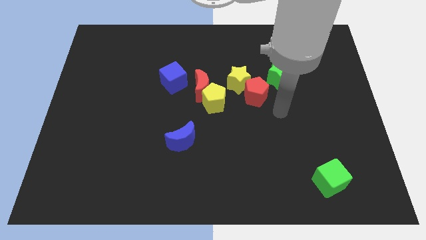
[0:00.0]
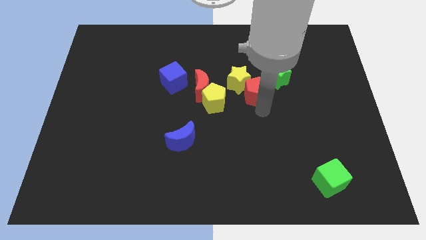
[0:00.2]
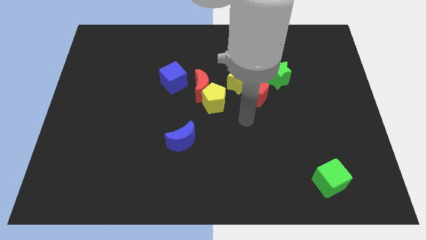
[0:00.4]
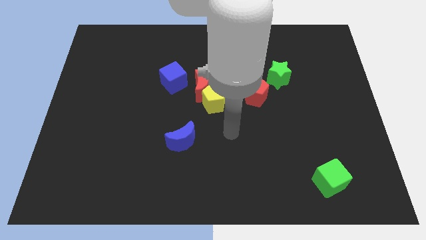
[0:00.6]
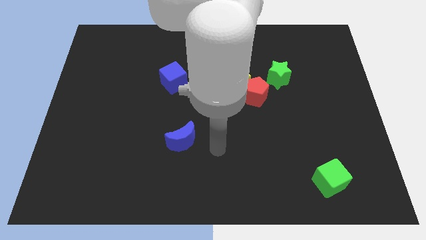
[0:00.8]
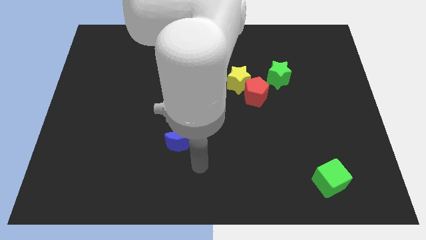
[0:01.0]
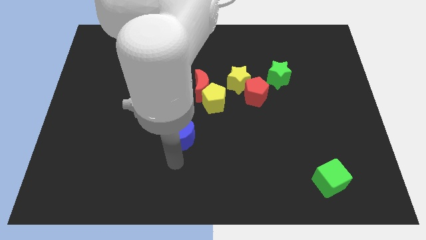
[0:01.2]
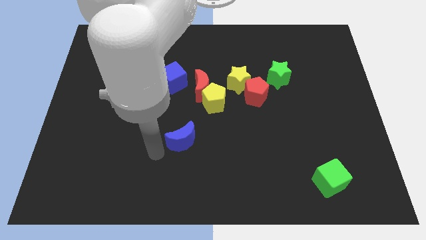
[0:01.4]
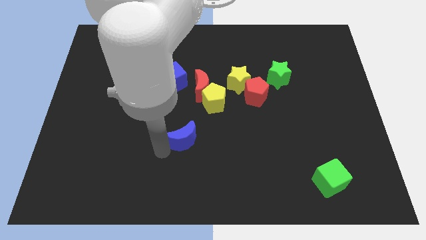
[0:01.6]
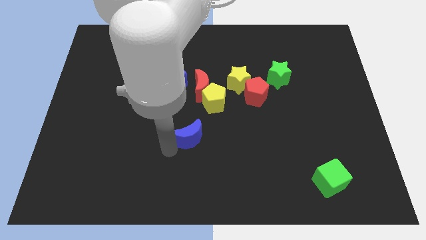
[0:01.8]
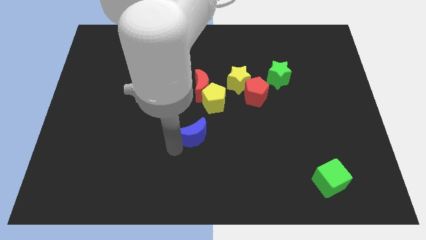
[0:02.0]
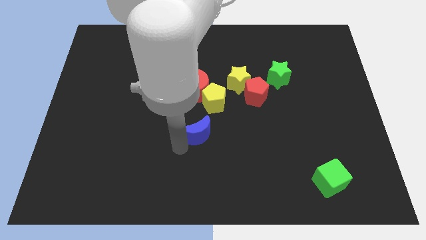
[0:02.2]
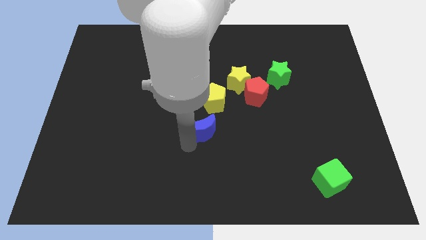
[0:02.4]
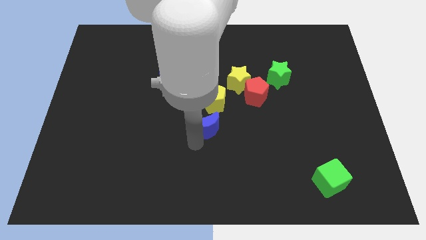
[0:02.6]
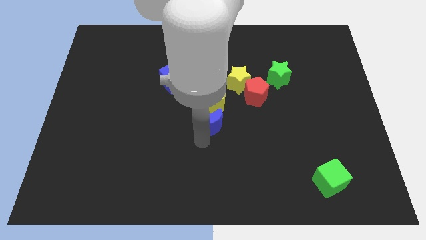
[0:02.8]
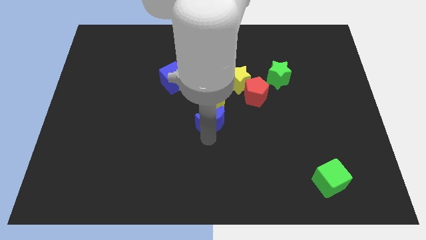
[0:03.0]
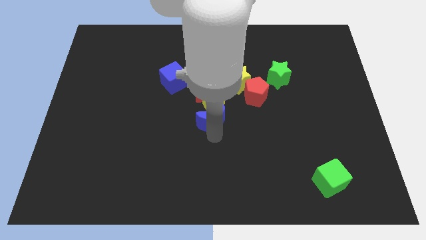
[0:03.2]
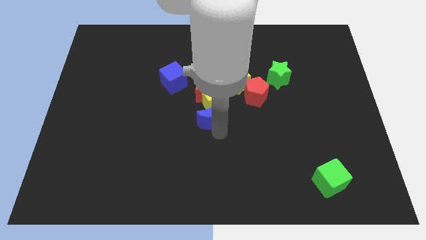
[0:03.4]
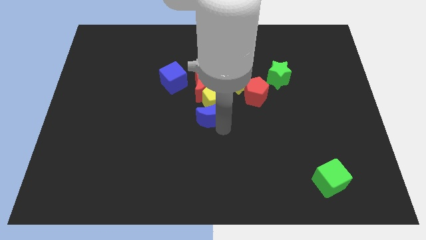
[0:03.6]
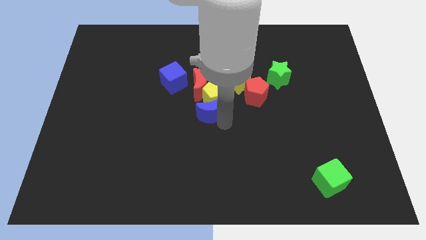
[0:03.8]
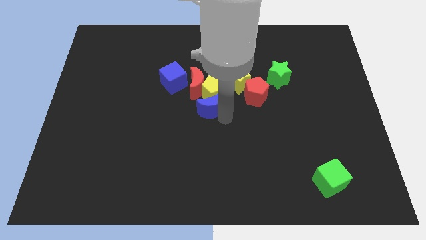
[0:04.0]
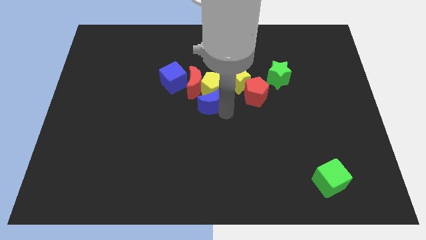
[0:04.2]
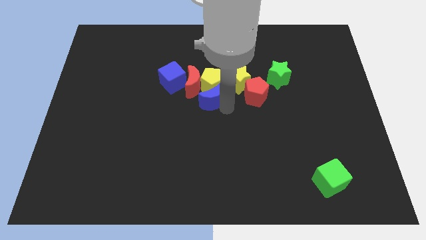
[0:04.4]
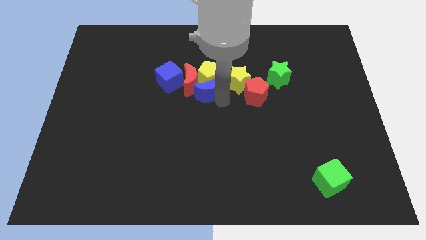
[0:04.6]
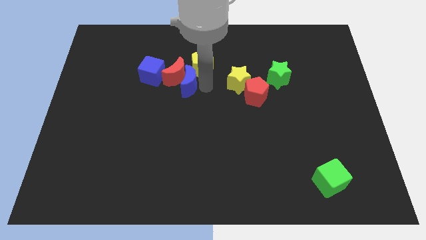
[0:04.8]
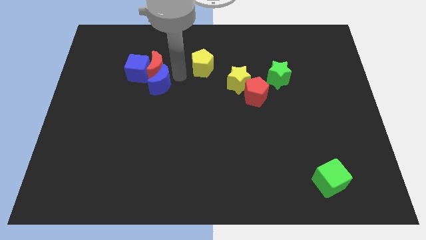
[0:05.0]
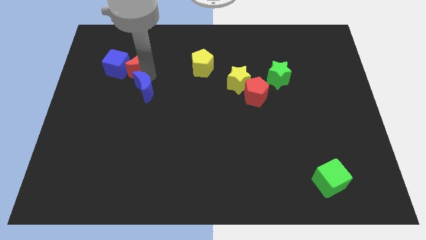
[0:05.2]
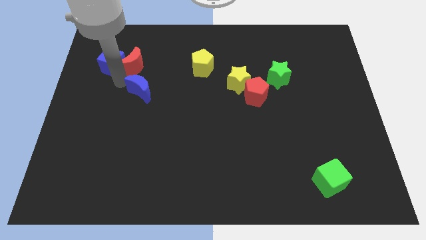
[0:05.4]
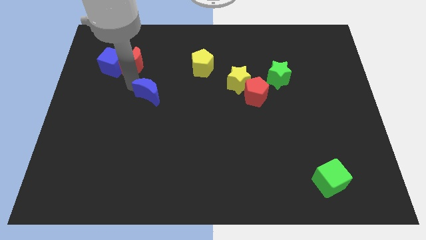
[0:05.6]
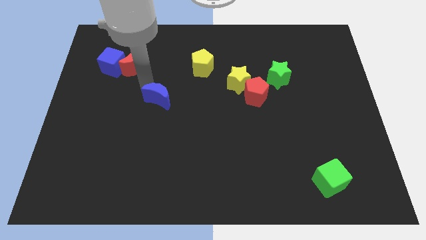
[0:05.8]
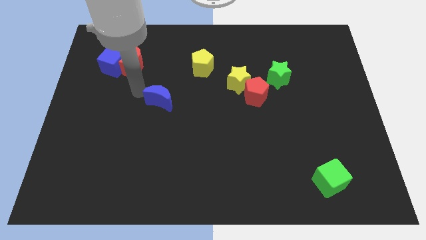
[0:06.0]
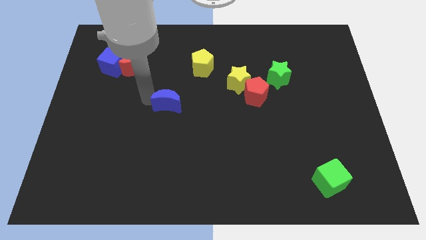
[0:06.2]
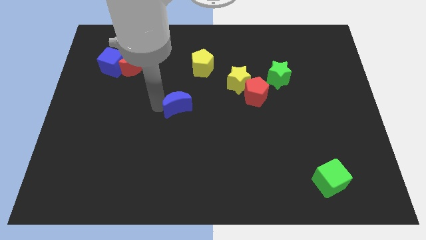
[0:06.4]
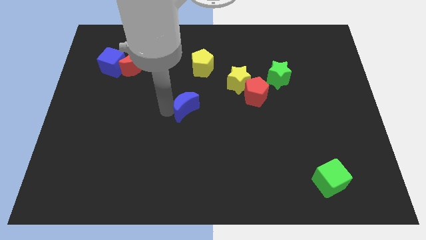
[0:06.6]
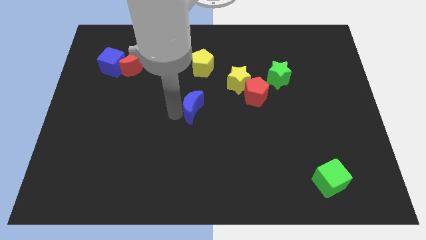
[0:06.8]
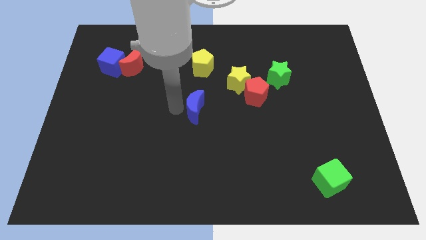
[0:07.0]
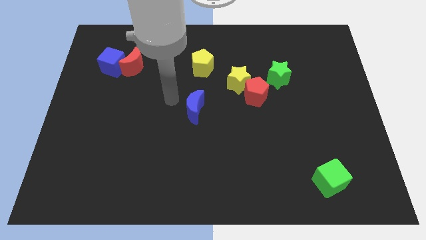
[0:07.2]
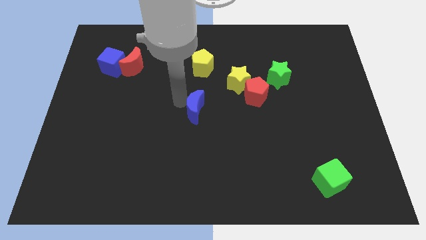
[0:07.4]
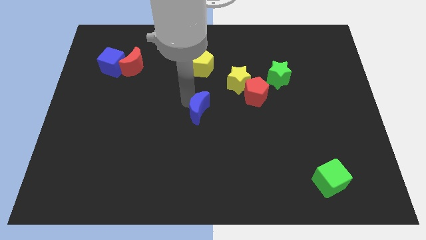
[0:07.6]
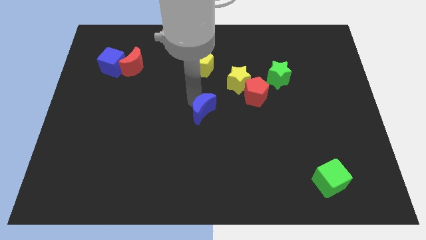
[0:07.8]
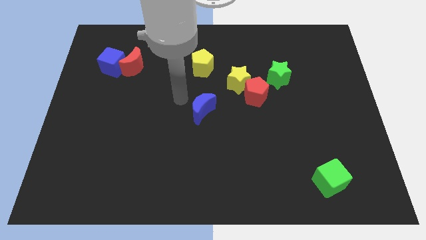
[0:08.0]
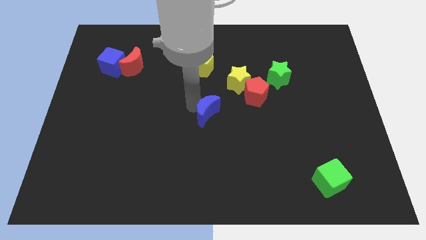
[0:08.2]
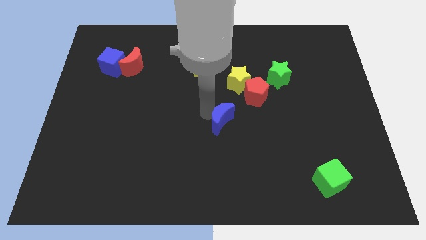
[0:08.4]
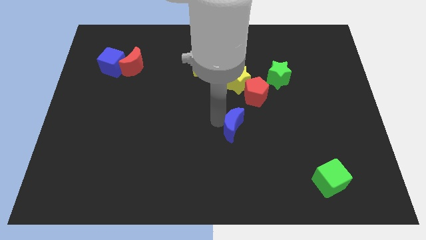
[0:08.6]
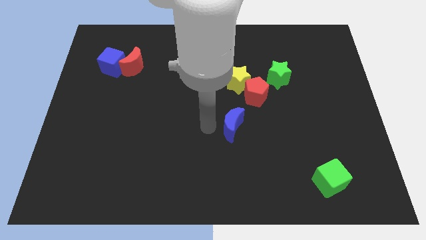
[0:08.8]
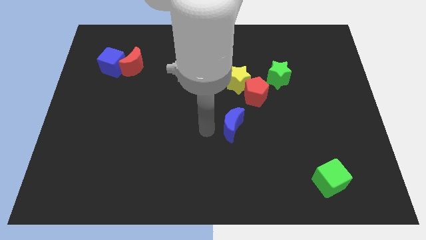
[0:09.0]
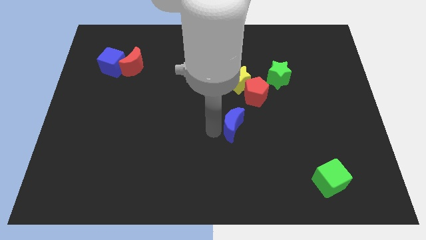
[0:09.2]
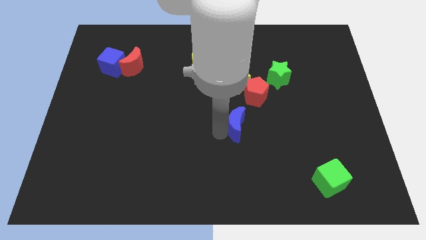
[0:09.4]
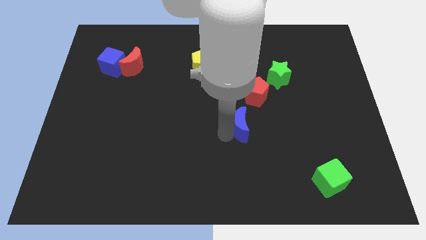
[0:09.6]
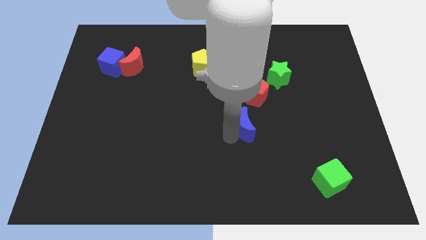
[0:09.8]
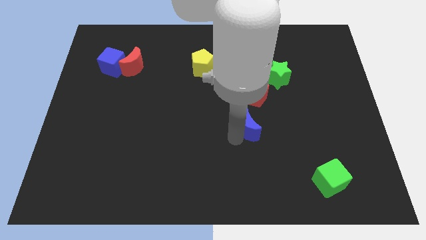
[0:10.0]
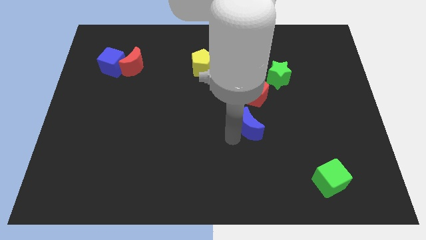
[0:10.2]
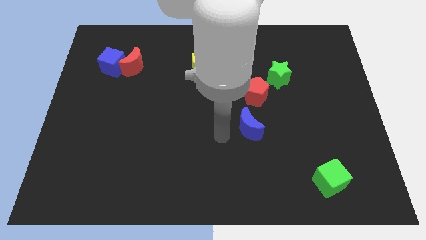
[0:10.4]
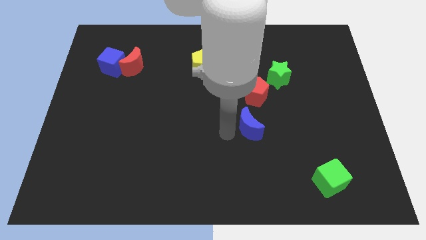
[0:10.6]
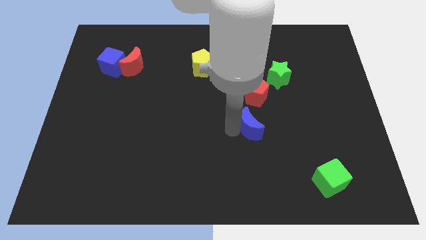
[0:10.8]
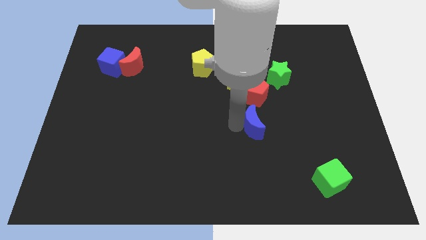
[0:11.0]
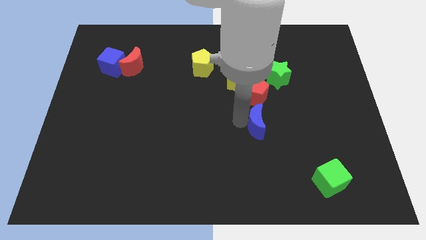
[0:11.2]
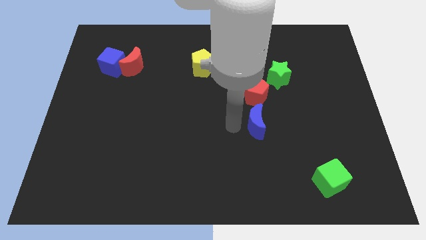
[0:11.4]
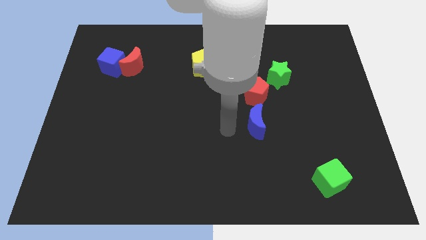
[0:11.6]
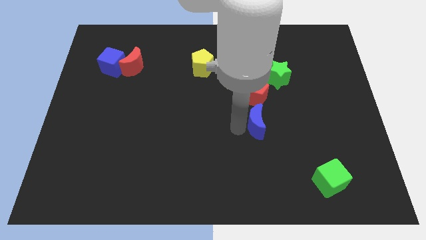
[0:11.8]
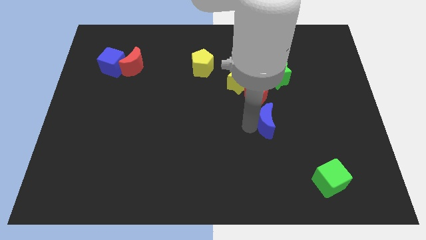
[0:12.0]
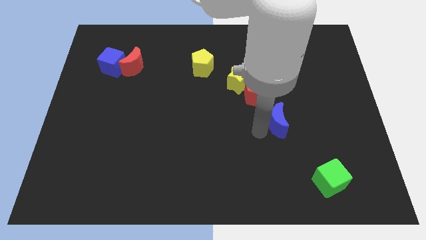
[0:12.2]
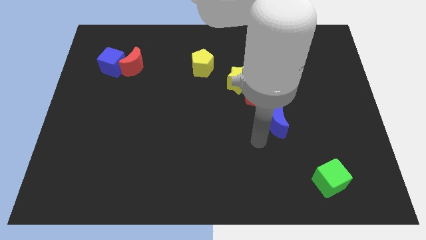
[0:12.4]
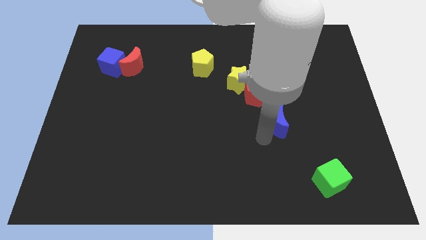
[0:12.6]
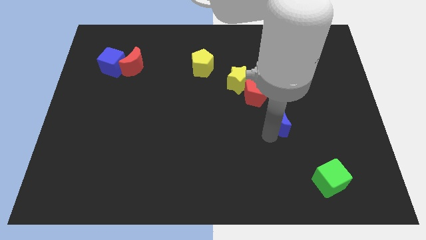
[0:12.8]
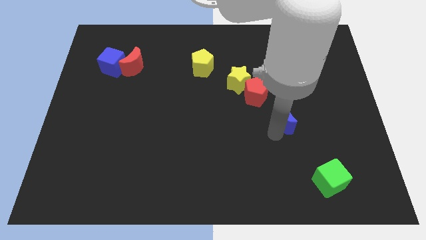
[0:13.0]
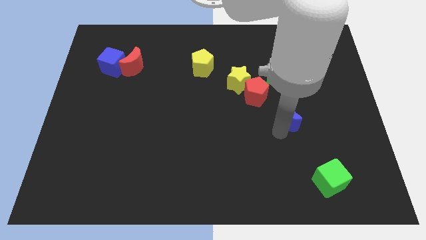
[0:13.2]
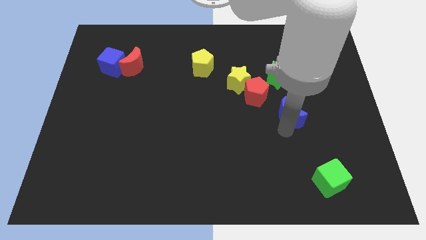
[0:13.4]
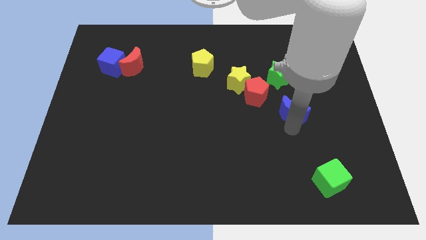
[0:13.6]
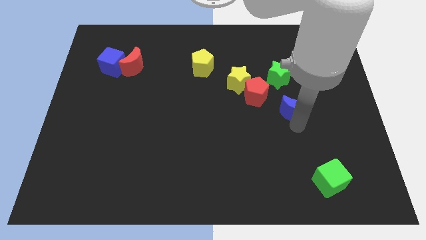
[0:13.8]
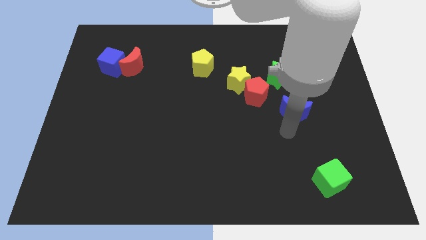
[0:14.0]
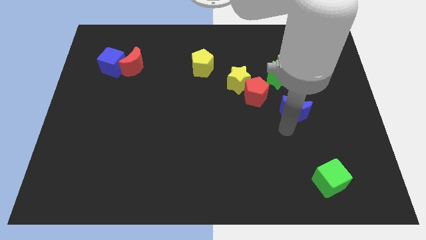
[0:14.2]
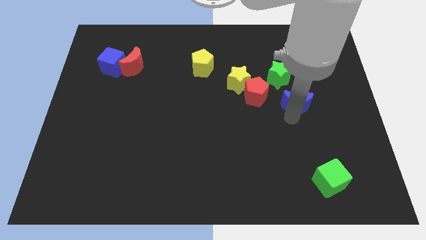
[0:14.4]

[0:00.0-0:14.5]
slide the blue moon to the bottom right of the green star
